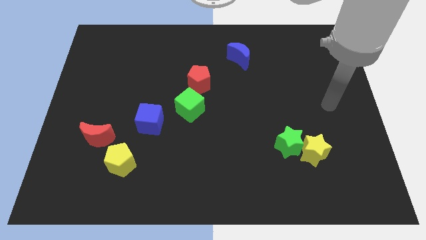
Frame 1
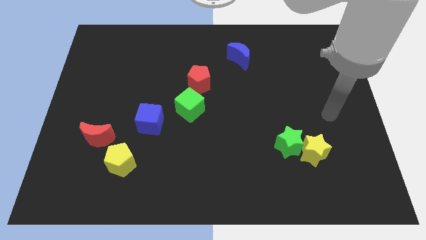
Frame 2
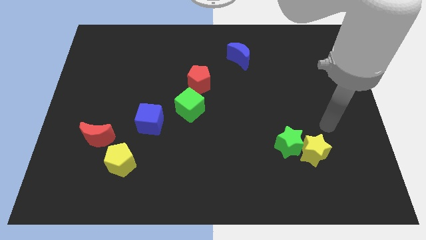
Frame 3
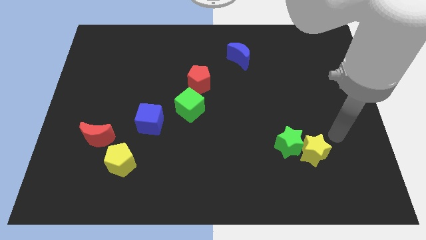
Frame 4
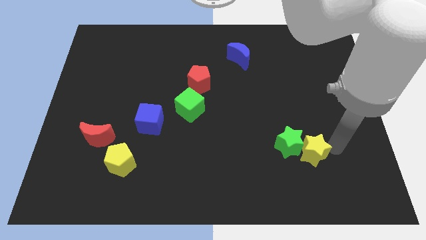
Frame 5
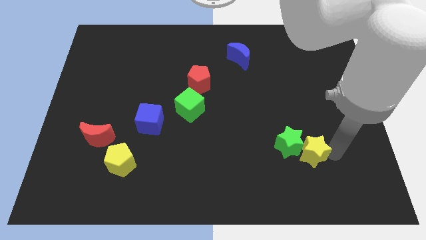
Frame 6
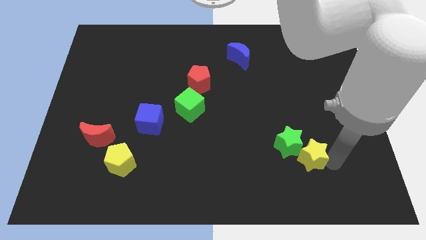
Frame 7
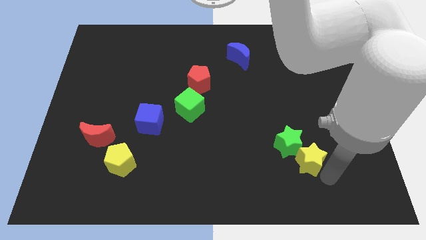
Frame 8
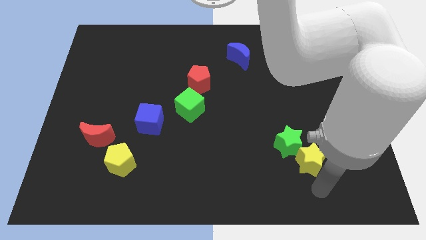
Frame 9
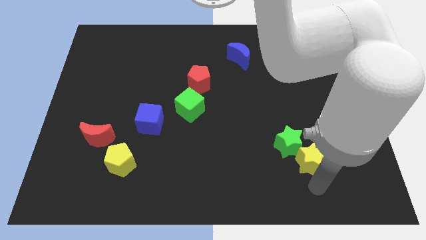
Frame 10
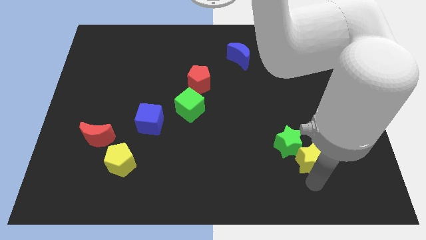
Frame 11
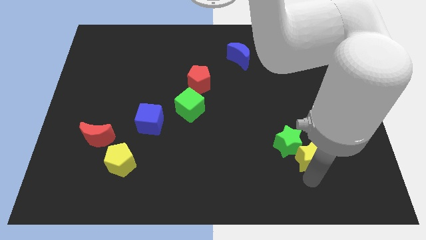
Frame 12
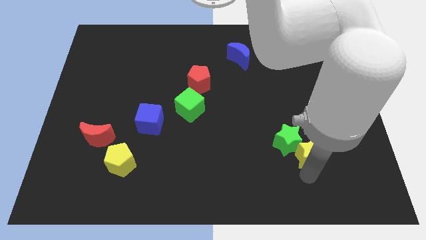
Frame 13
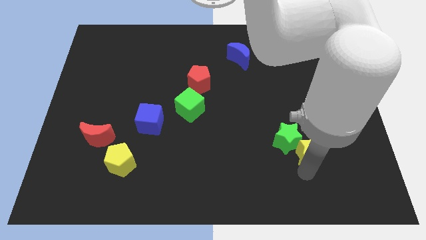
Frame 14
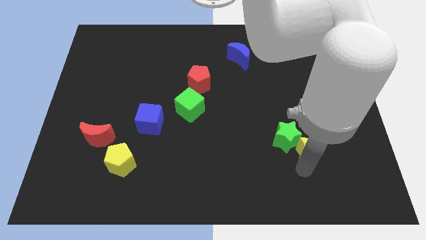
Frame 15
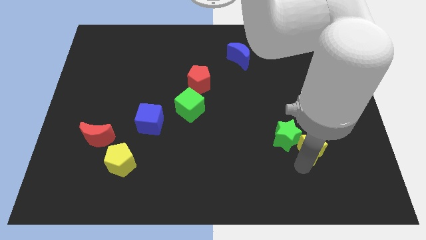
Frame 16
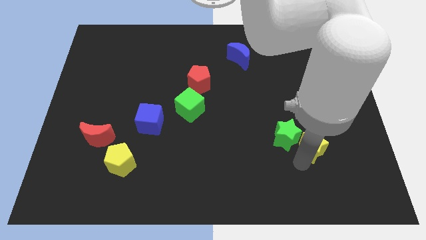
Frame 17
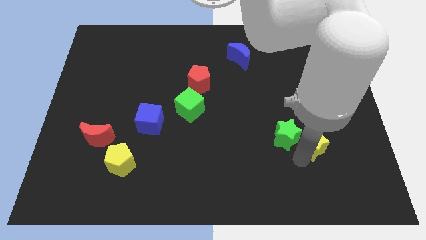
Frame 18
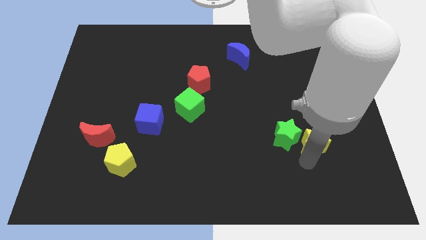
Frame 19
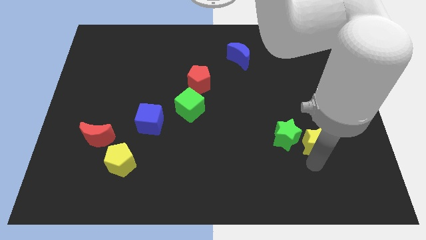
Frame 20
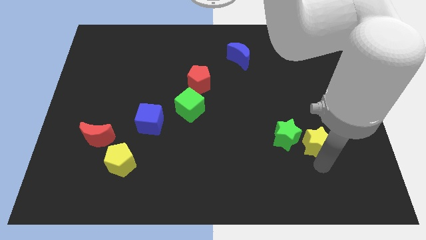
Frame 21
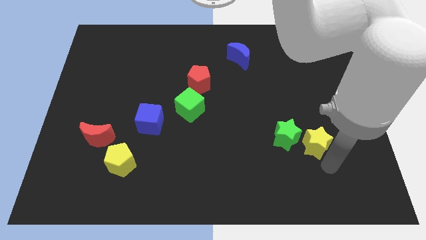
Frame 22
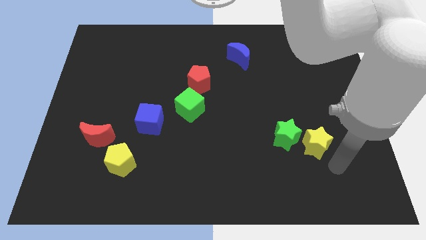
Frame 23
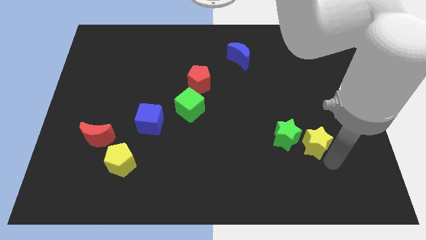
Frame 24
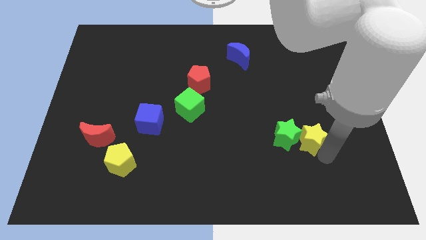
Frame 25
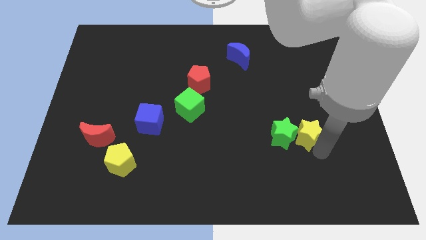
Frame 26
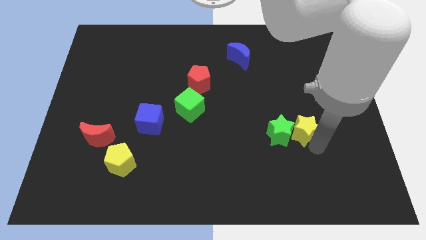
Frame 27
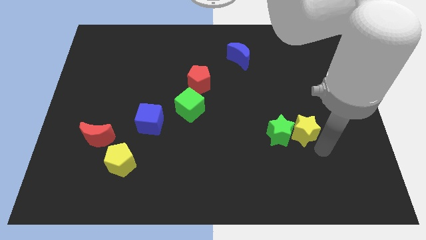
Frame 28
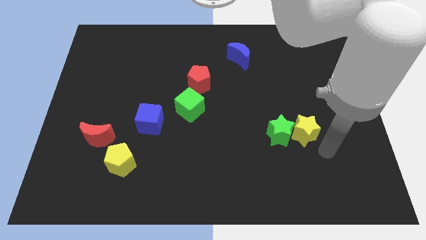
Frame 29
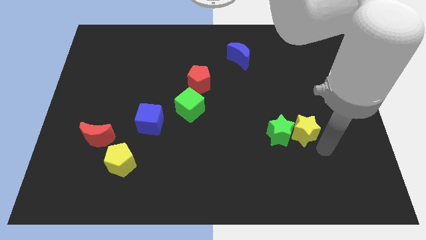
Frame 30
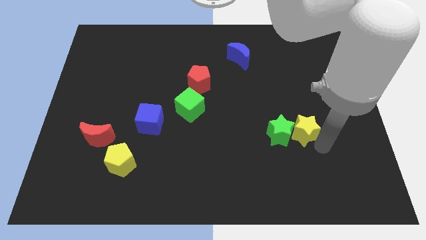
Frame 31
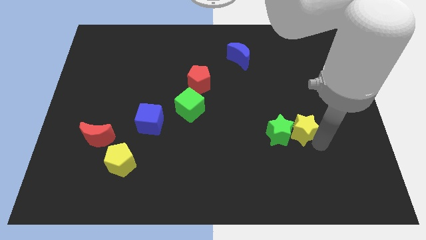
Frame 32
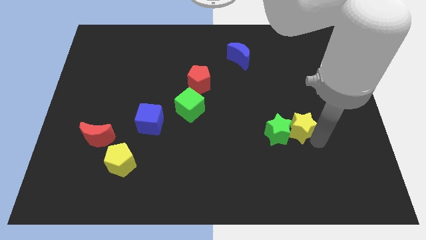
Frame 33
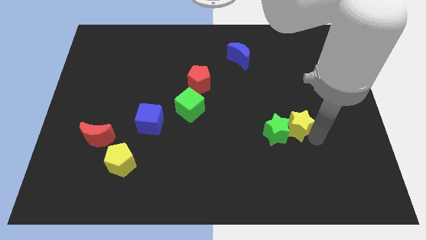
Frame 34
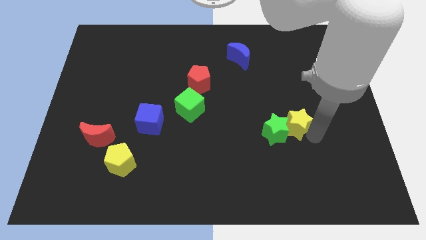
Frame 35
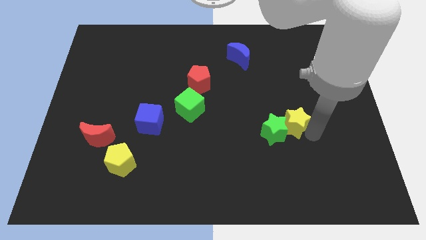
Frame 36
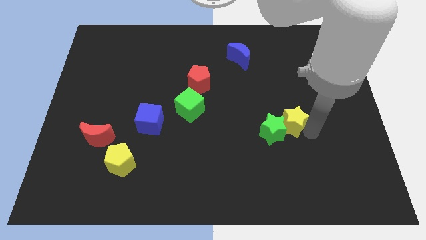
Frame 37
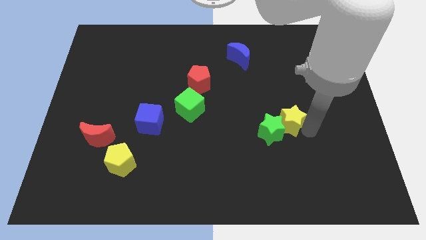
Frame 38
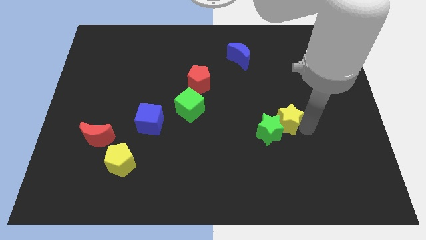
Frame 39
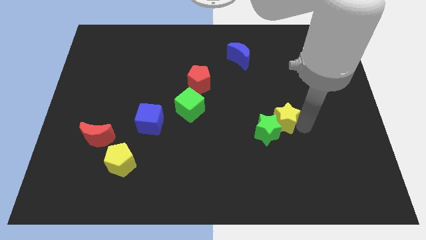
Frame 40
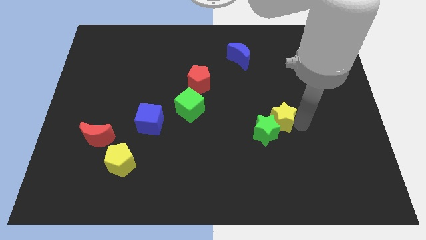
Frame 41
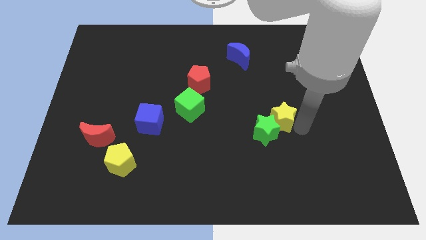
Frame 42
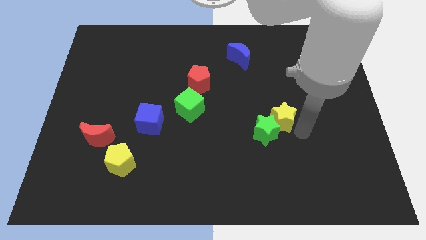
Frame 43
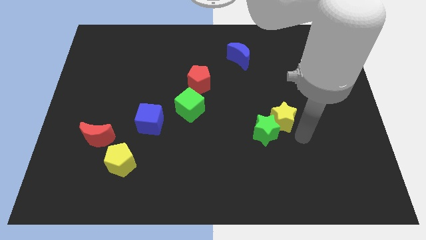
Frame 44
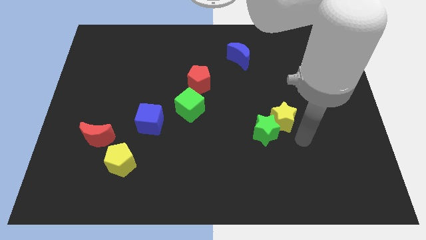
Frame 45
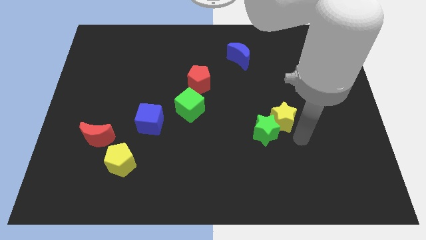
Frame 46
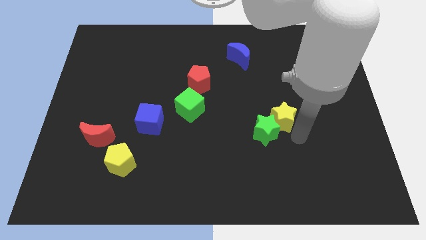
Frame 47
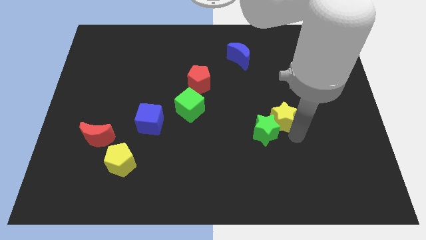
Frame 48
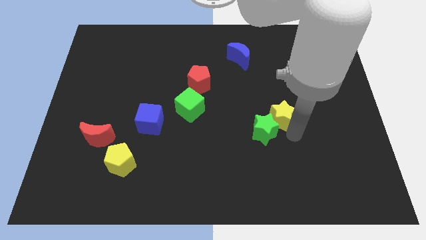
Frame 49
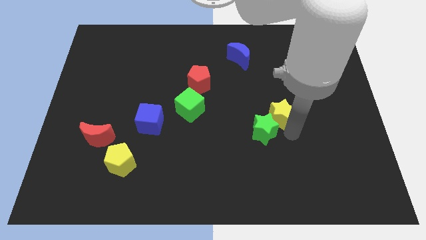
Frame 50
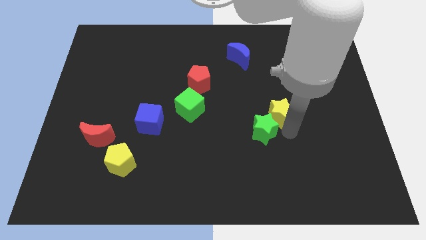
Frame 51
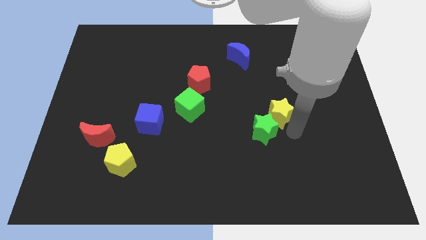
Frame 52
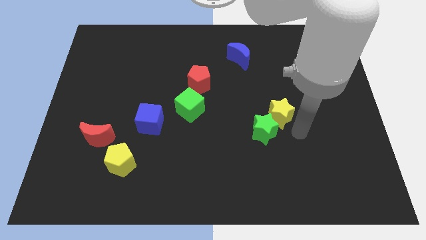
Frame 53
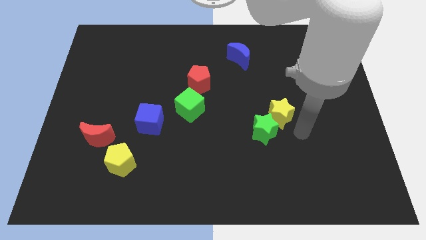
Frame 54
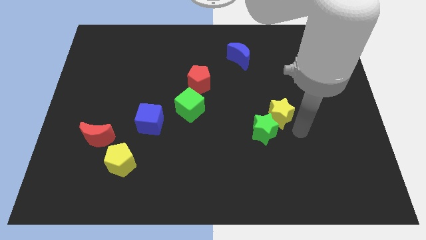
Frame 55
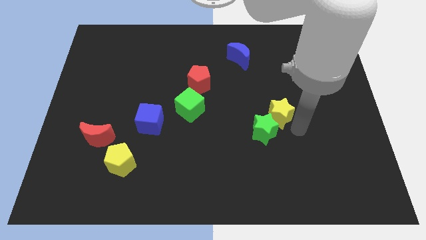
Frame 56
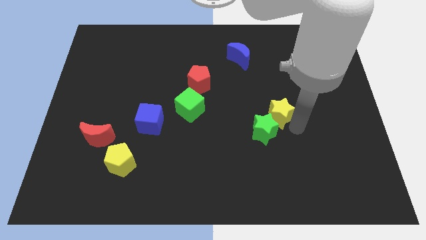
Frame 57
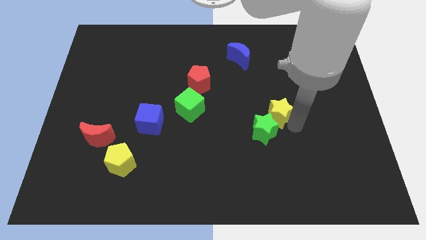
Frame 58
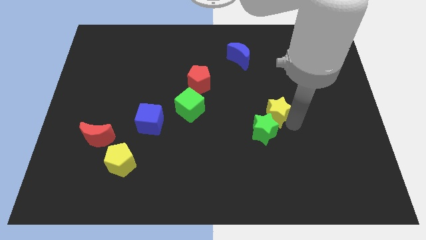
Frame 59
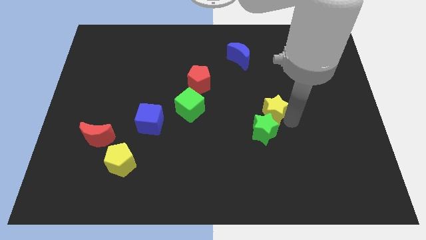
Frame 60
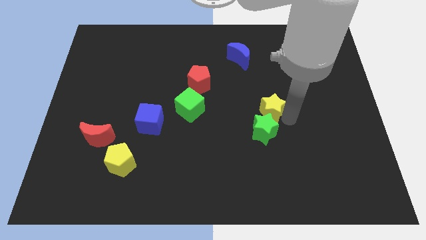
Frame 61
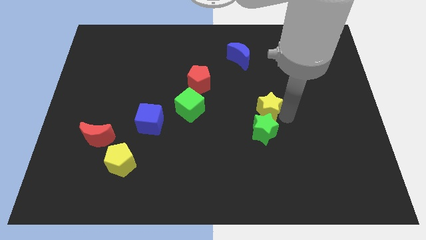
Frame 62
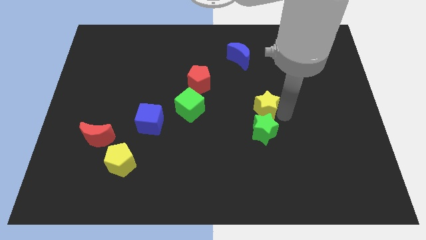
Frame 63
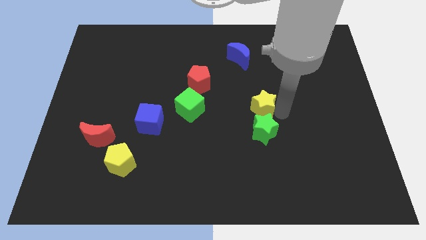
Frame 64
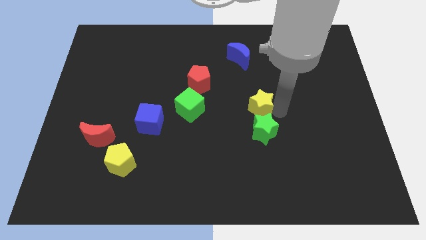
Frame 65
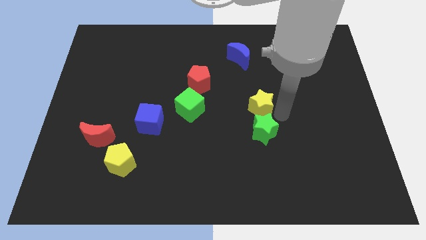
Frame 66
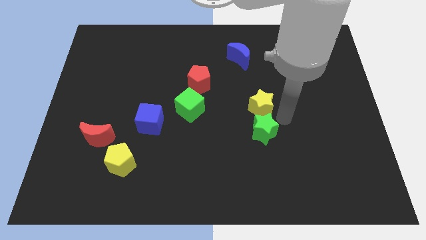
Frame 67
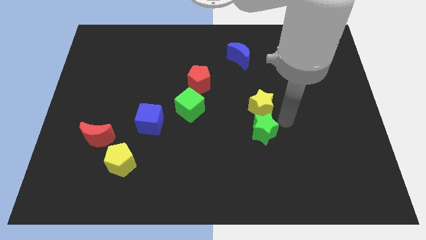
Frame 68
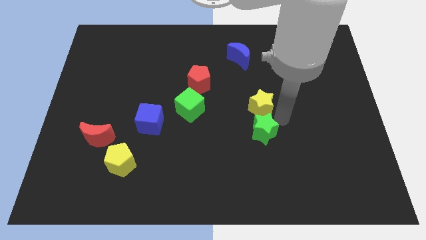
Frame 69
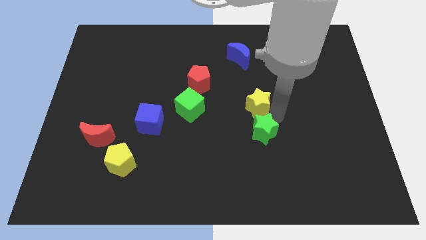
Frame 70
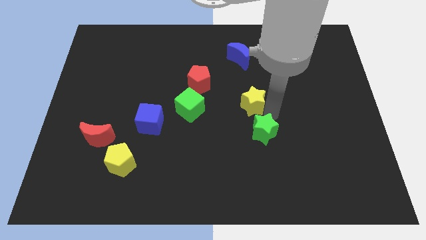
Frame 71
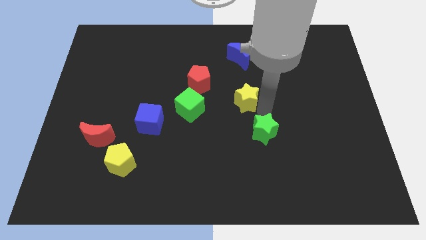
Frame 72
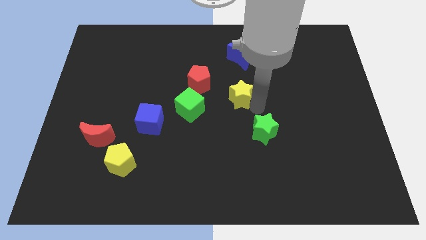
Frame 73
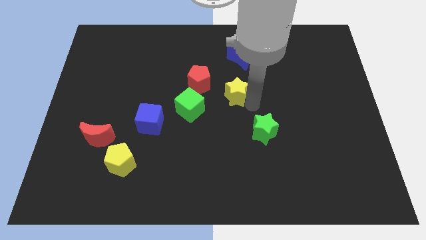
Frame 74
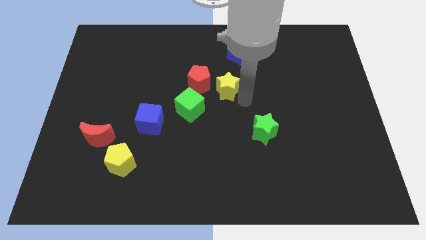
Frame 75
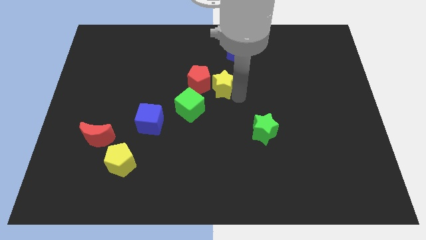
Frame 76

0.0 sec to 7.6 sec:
move the yellow star close to the red pentagon
